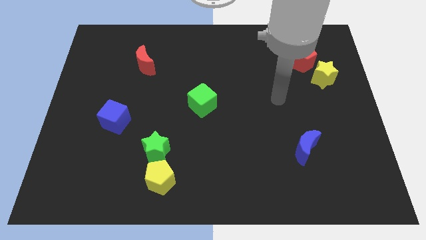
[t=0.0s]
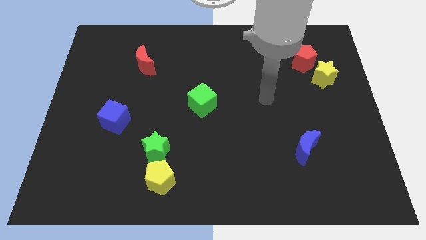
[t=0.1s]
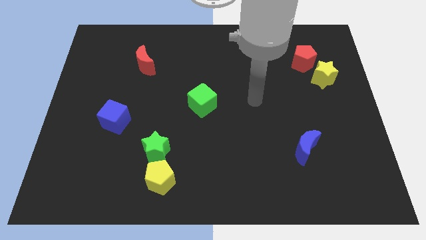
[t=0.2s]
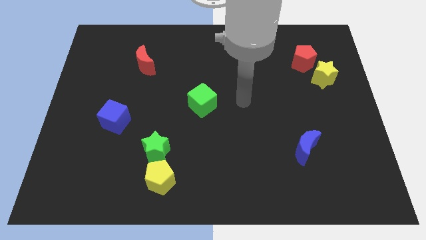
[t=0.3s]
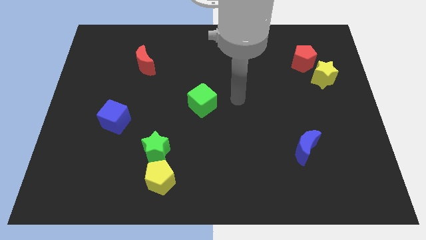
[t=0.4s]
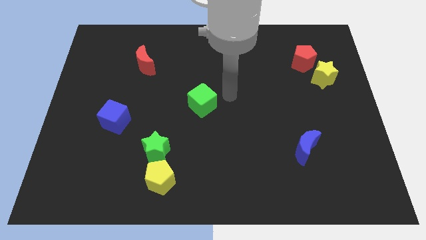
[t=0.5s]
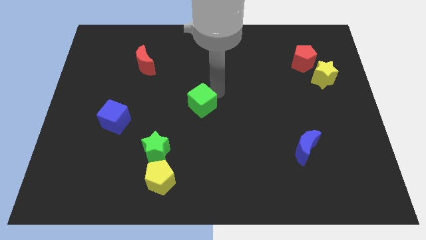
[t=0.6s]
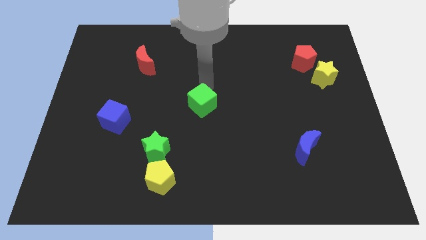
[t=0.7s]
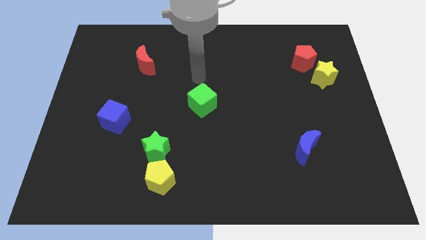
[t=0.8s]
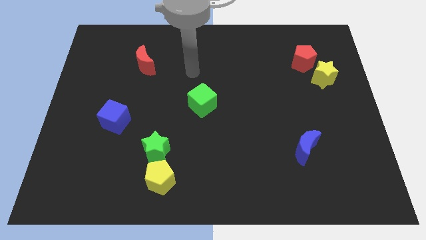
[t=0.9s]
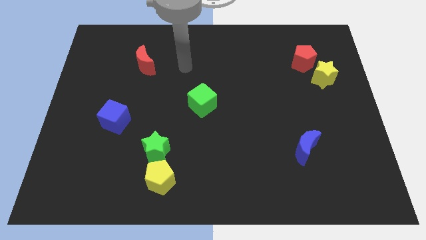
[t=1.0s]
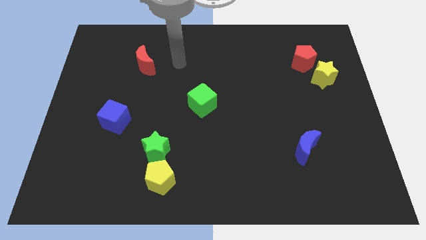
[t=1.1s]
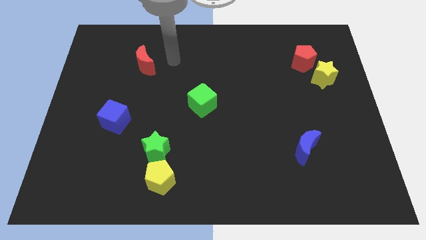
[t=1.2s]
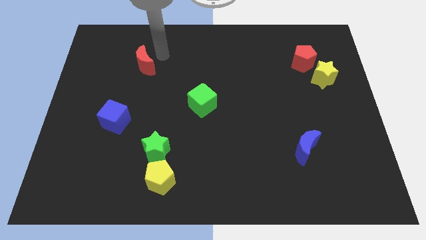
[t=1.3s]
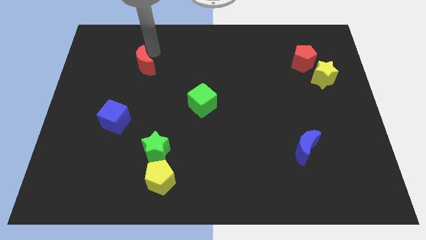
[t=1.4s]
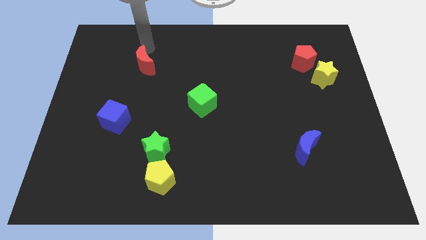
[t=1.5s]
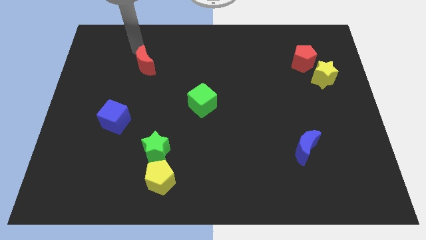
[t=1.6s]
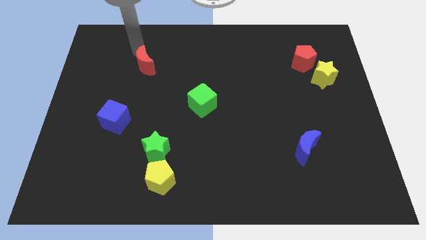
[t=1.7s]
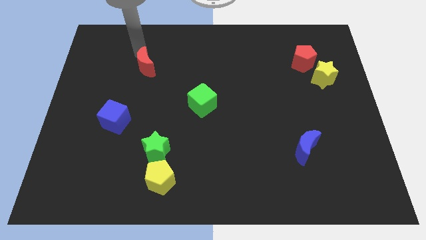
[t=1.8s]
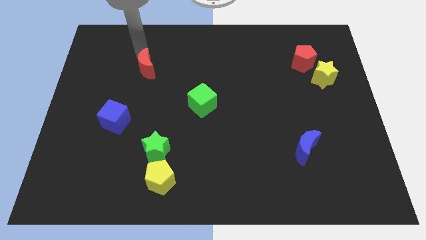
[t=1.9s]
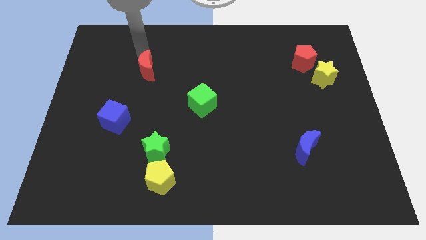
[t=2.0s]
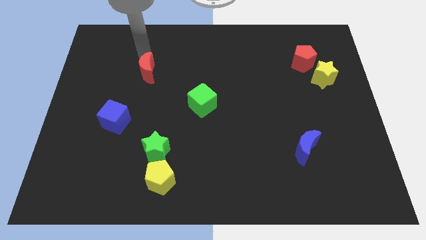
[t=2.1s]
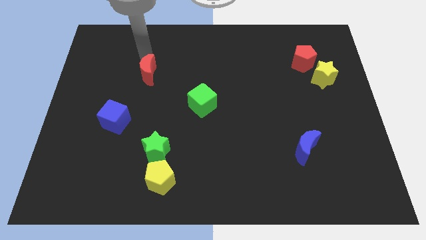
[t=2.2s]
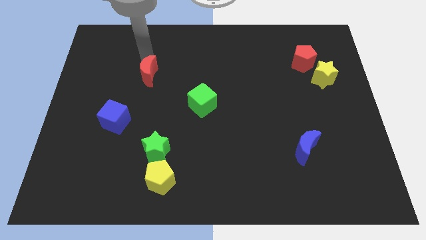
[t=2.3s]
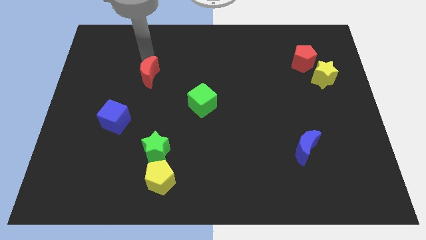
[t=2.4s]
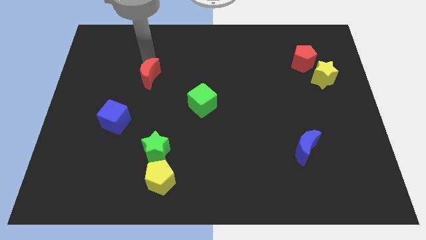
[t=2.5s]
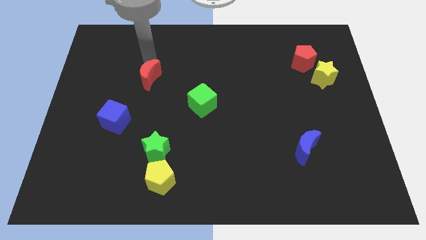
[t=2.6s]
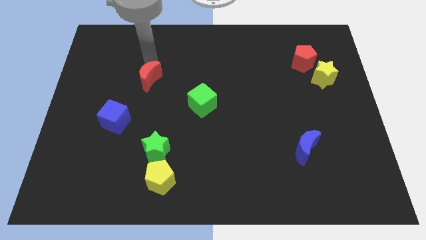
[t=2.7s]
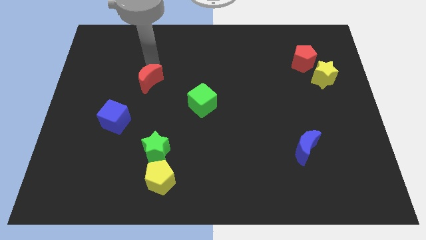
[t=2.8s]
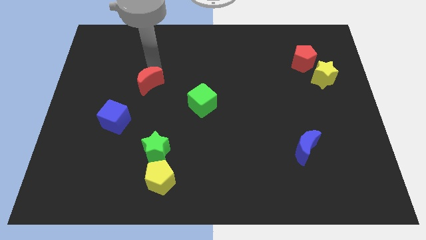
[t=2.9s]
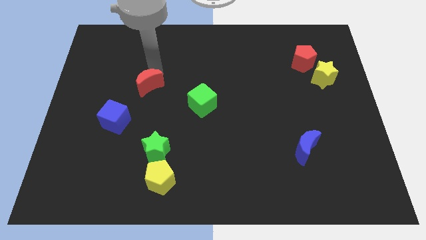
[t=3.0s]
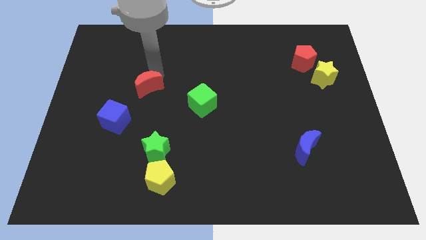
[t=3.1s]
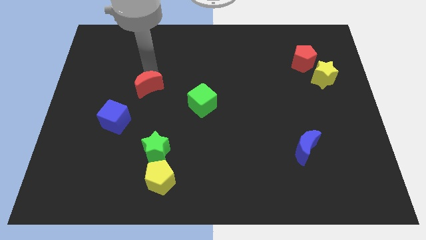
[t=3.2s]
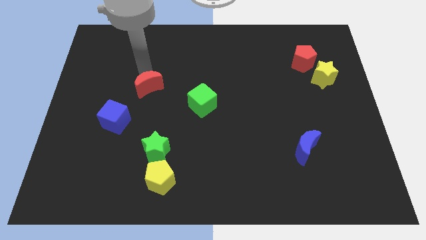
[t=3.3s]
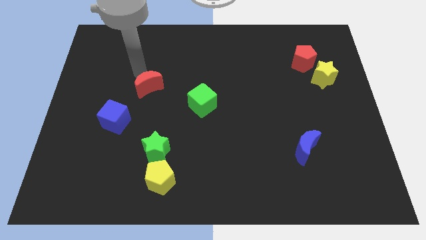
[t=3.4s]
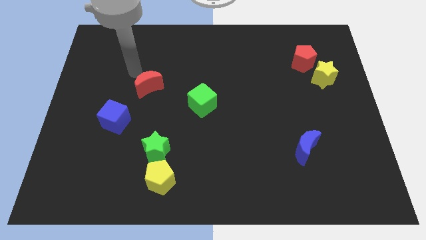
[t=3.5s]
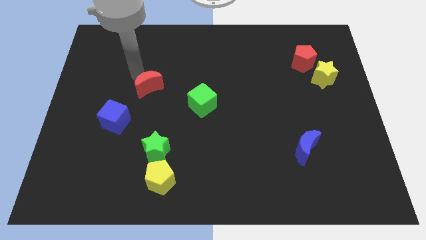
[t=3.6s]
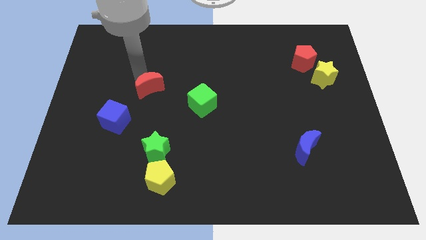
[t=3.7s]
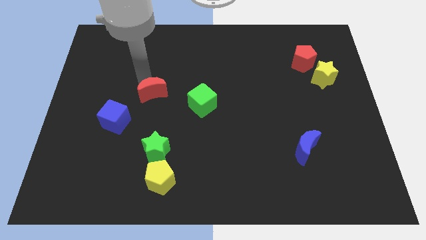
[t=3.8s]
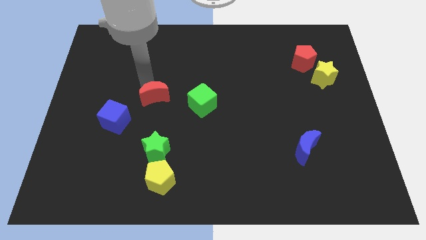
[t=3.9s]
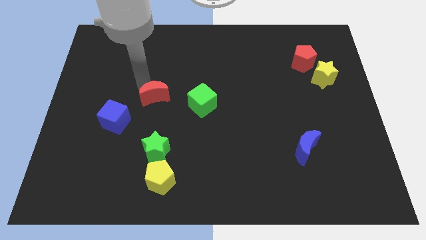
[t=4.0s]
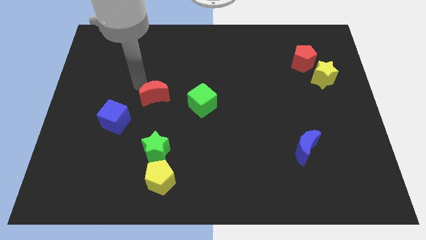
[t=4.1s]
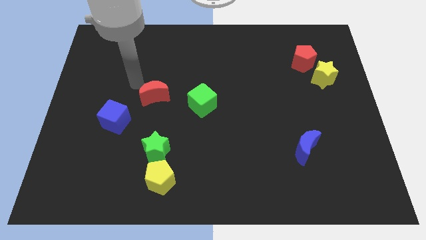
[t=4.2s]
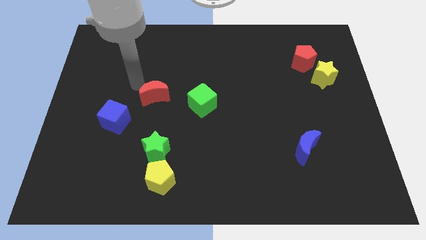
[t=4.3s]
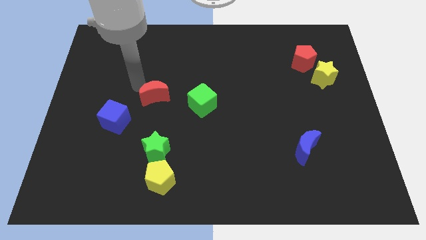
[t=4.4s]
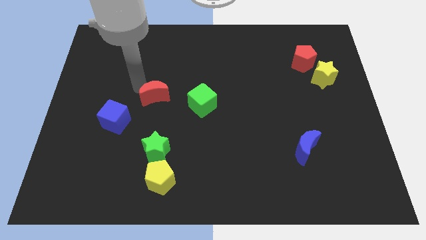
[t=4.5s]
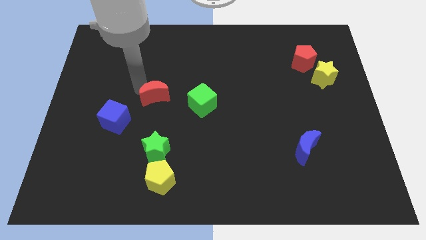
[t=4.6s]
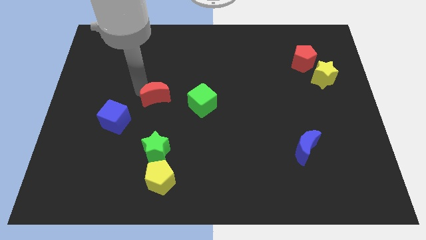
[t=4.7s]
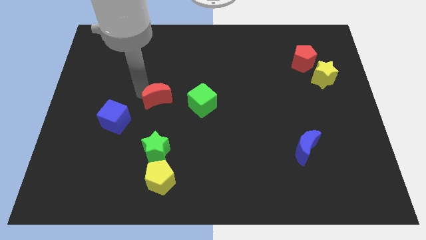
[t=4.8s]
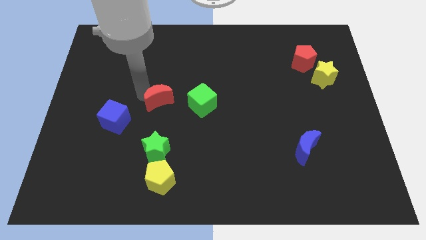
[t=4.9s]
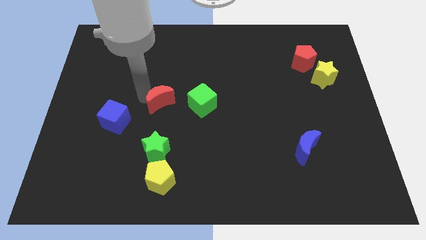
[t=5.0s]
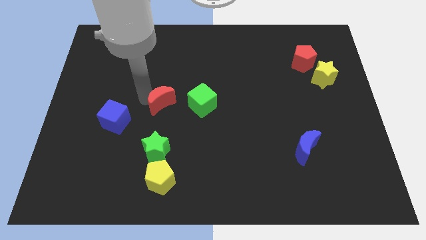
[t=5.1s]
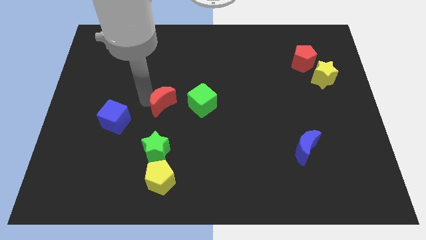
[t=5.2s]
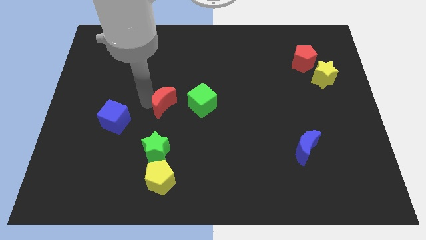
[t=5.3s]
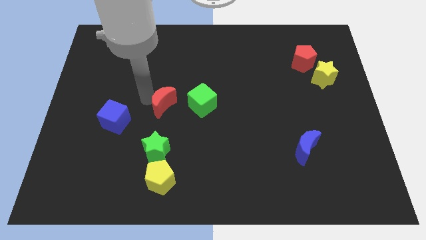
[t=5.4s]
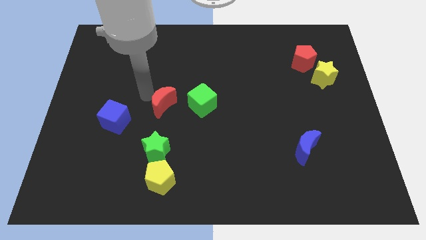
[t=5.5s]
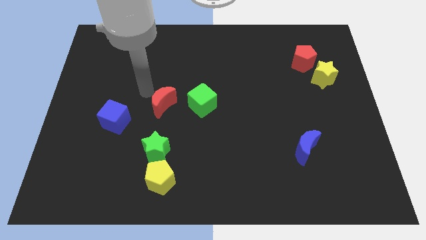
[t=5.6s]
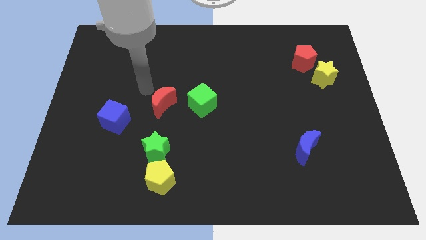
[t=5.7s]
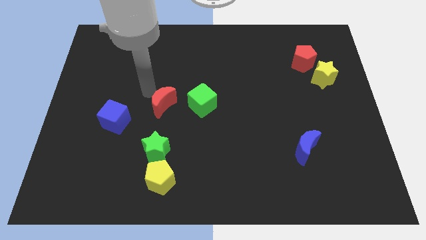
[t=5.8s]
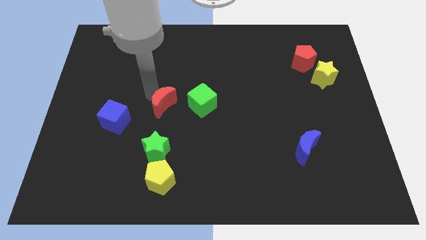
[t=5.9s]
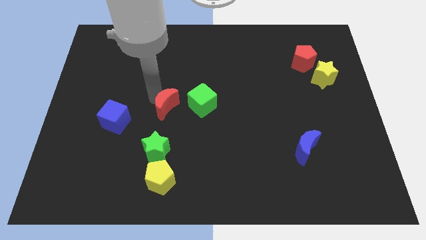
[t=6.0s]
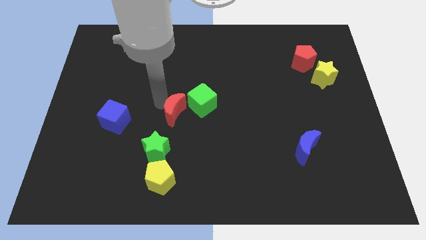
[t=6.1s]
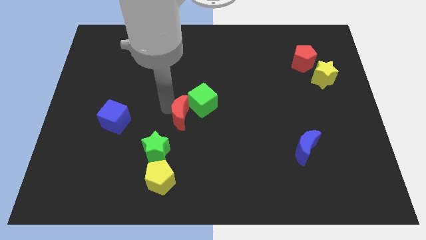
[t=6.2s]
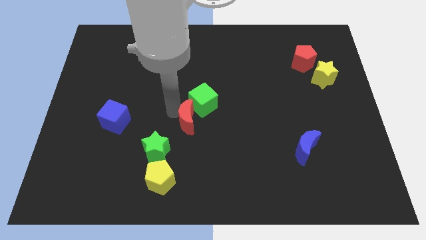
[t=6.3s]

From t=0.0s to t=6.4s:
push the red moon downwards and right

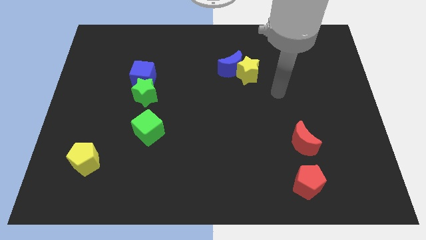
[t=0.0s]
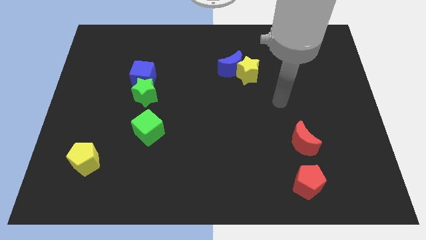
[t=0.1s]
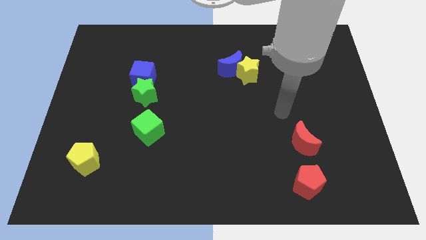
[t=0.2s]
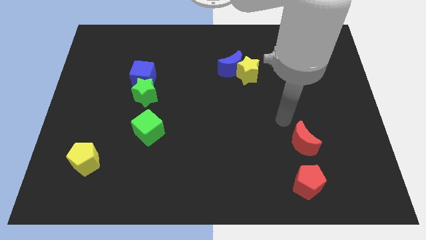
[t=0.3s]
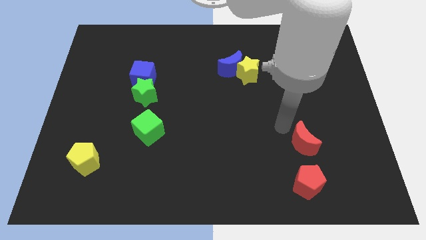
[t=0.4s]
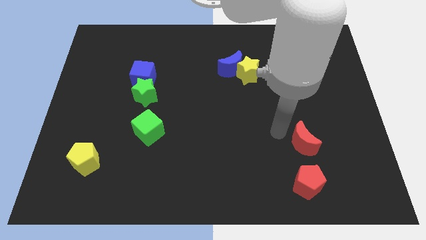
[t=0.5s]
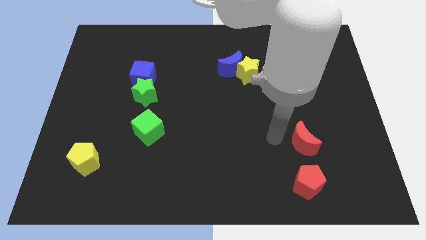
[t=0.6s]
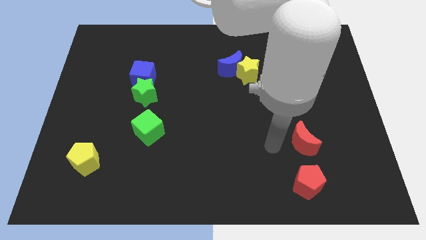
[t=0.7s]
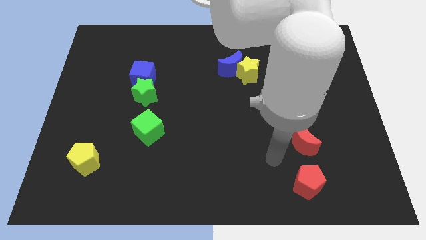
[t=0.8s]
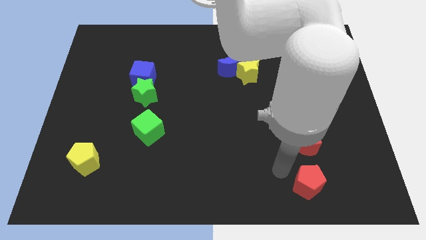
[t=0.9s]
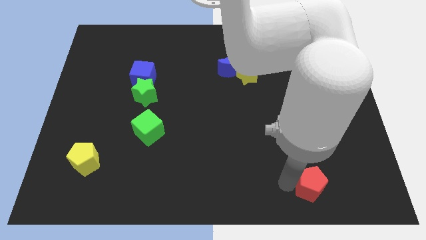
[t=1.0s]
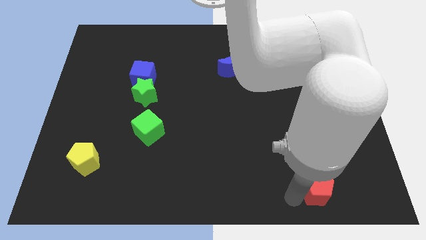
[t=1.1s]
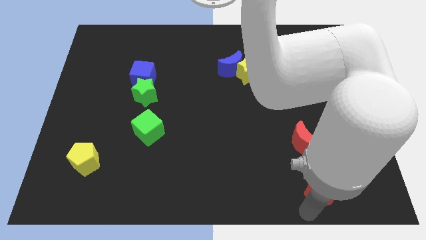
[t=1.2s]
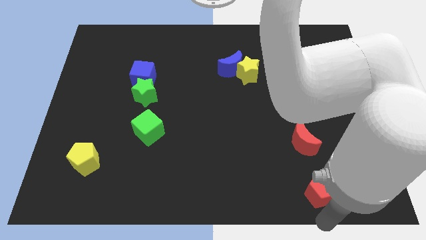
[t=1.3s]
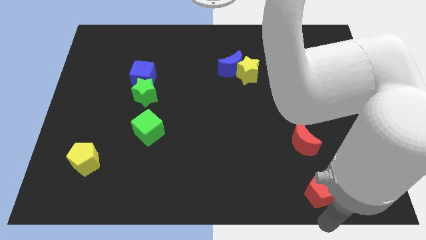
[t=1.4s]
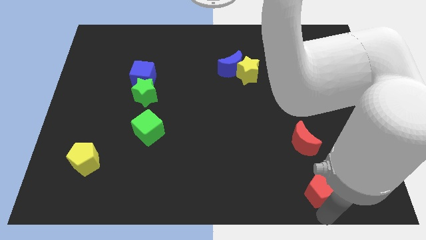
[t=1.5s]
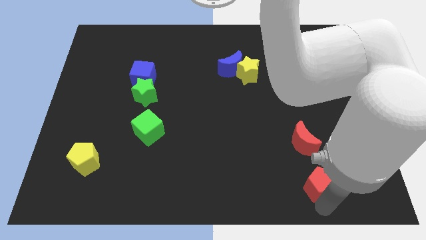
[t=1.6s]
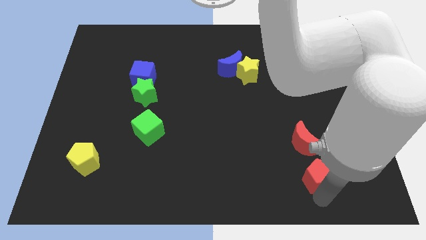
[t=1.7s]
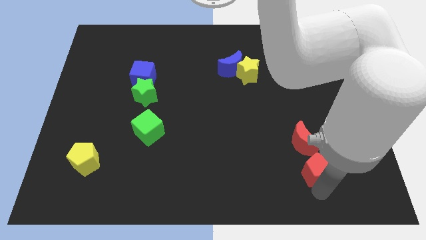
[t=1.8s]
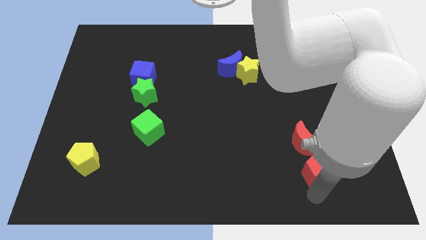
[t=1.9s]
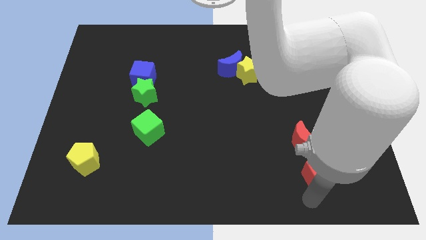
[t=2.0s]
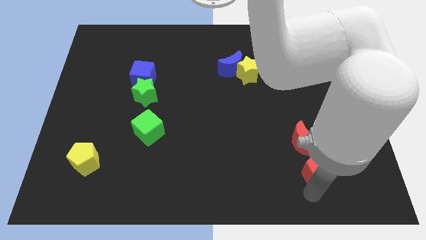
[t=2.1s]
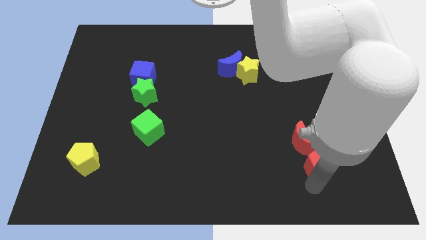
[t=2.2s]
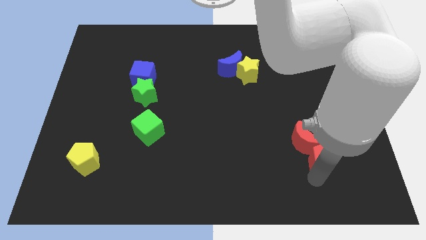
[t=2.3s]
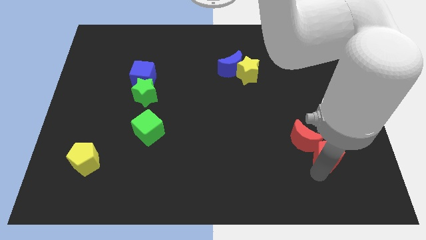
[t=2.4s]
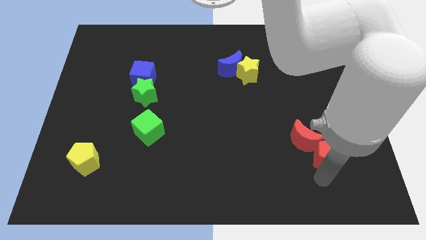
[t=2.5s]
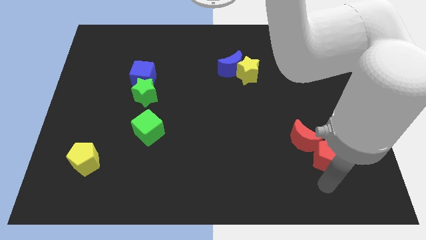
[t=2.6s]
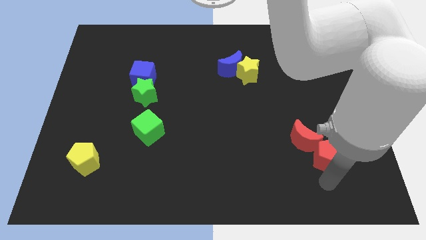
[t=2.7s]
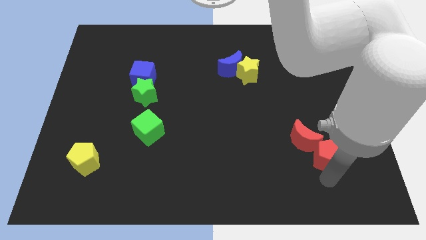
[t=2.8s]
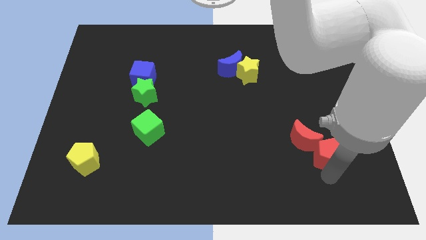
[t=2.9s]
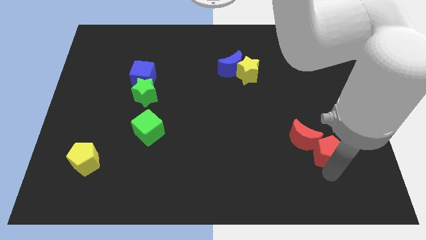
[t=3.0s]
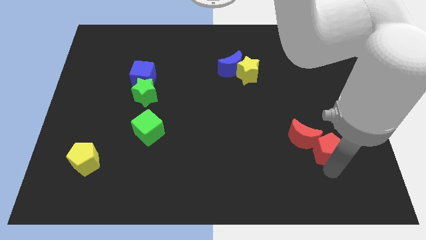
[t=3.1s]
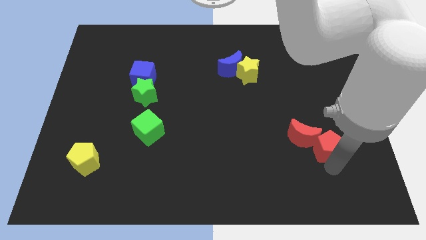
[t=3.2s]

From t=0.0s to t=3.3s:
slightly push the red pentagon upwards
